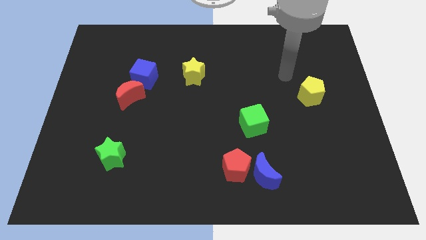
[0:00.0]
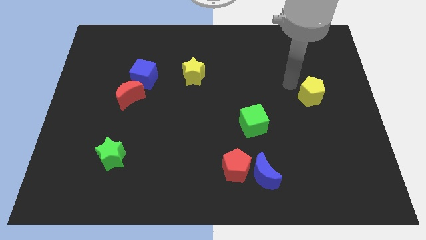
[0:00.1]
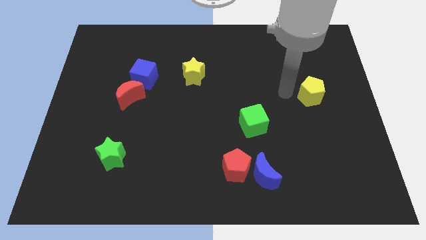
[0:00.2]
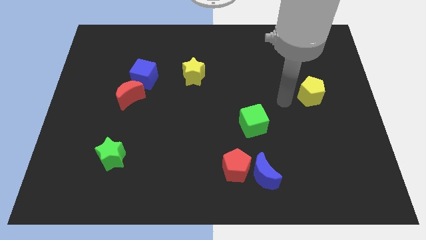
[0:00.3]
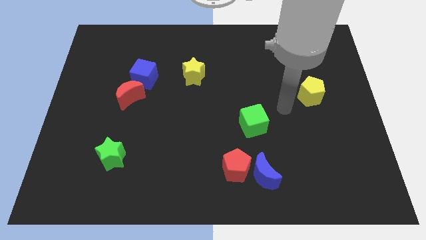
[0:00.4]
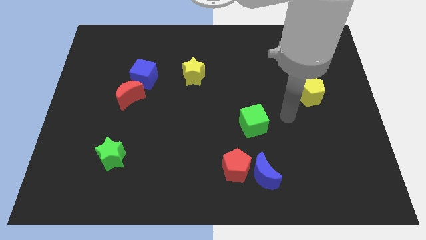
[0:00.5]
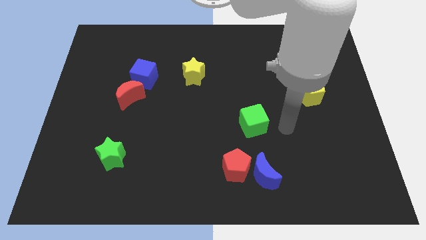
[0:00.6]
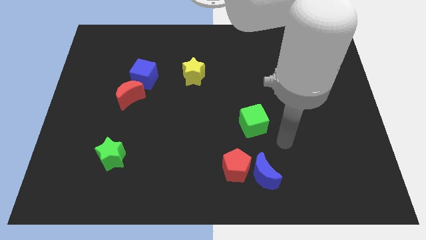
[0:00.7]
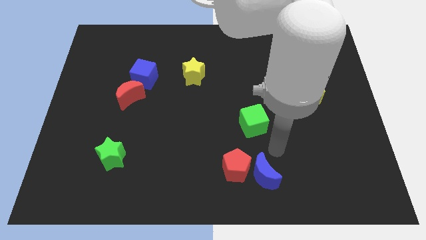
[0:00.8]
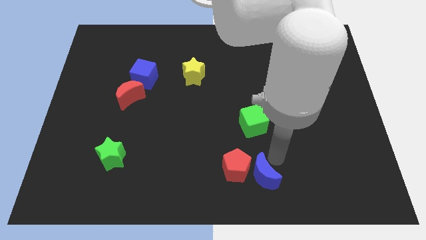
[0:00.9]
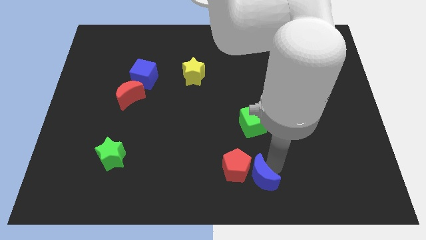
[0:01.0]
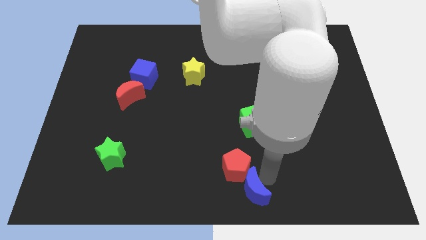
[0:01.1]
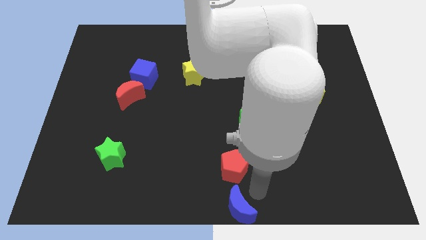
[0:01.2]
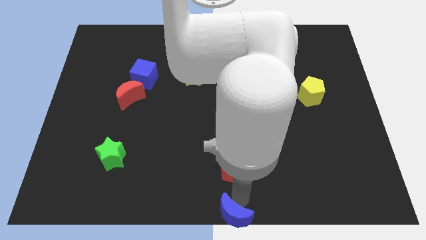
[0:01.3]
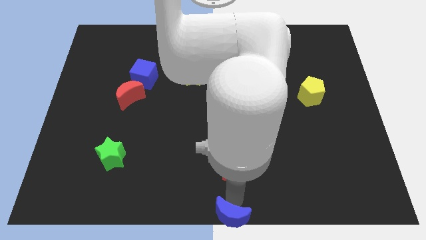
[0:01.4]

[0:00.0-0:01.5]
separate the red pentagon from the blue moon

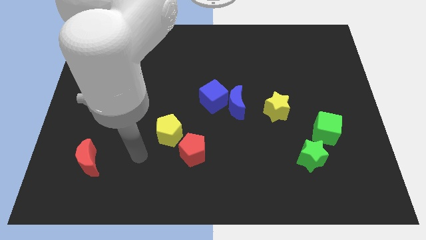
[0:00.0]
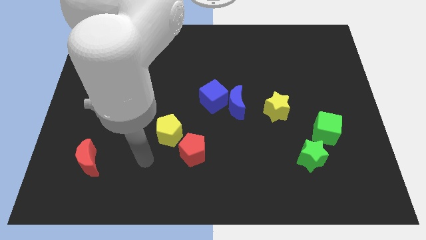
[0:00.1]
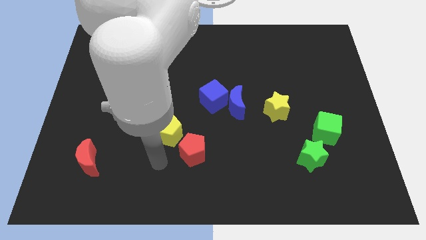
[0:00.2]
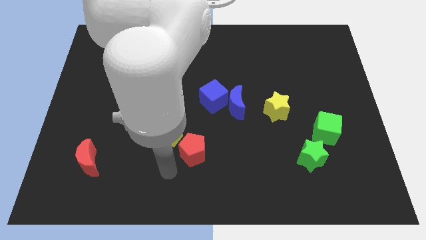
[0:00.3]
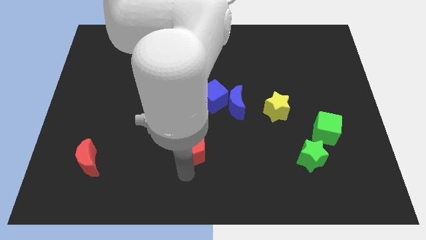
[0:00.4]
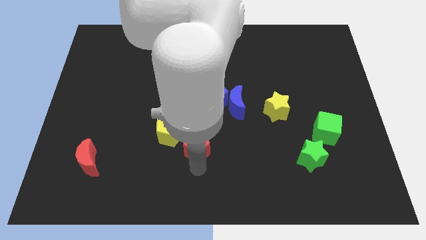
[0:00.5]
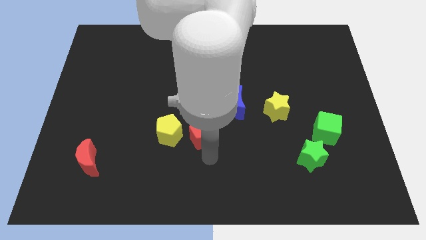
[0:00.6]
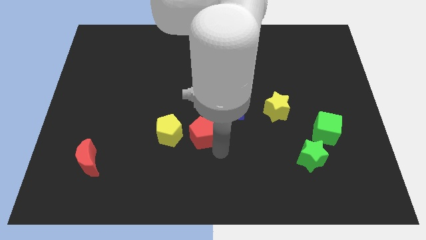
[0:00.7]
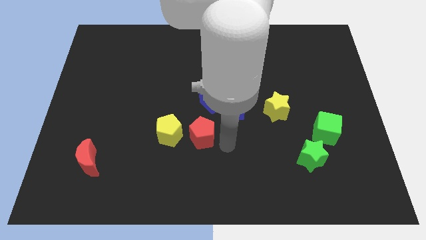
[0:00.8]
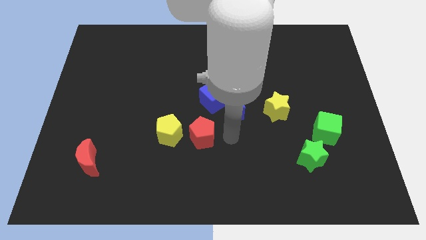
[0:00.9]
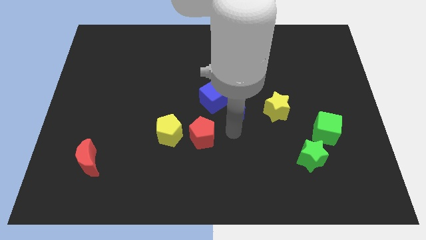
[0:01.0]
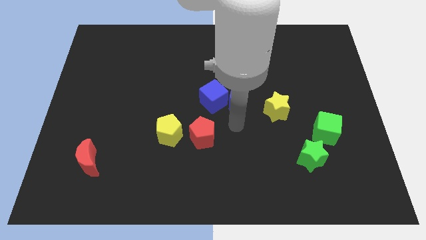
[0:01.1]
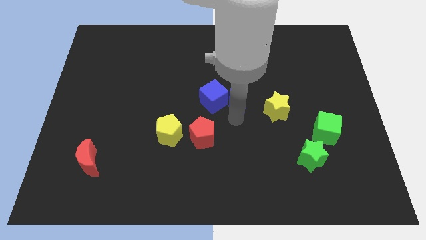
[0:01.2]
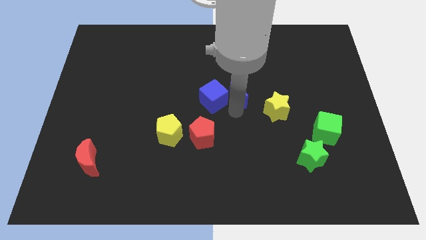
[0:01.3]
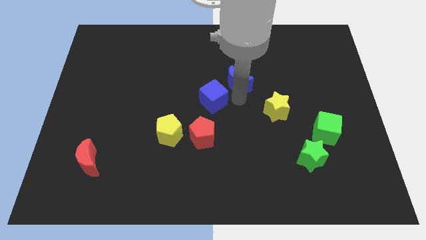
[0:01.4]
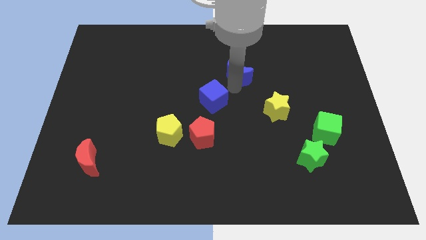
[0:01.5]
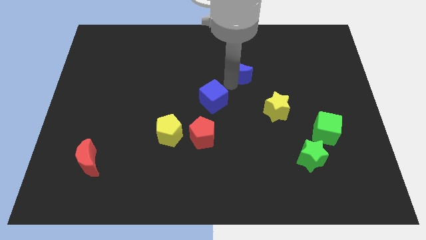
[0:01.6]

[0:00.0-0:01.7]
separate the blue cube from the blue moon

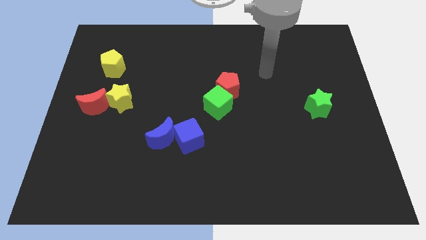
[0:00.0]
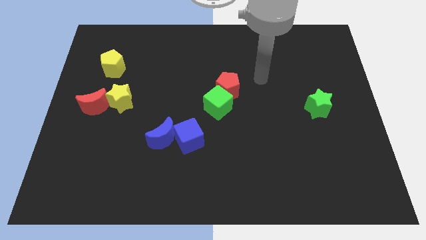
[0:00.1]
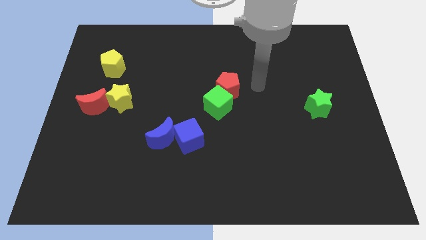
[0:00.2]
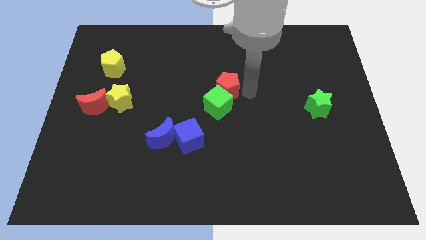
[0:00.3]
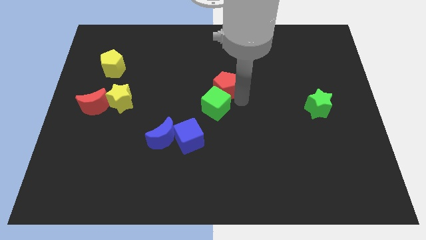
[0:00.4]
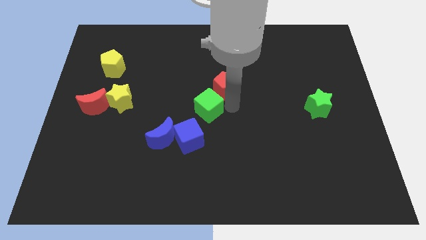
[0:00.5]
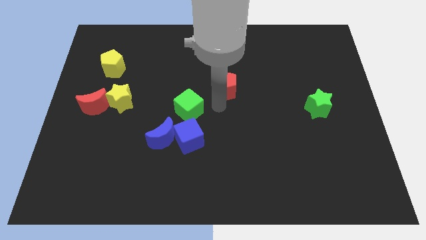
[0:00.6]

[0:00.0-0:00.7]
separate the red pentagon from the green cube

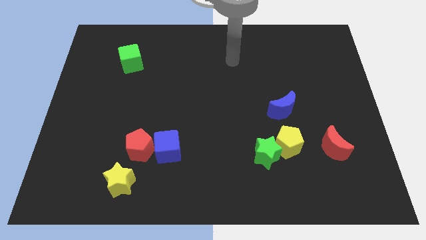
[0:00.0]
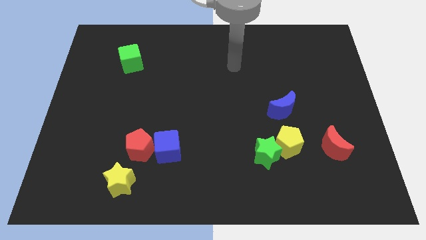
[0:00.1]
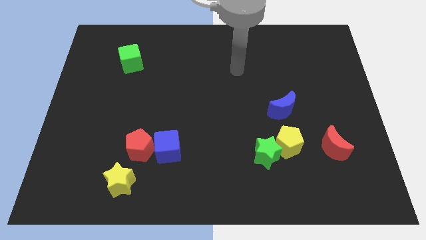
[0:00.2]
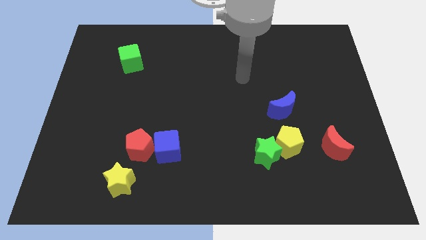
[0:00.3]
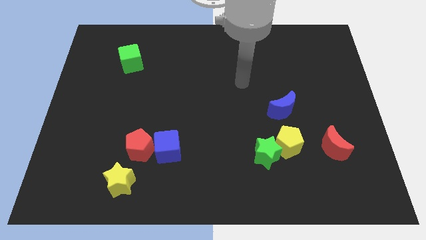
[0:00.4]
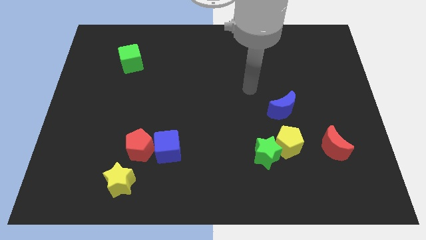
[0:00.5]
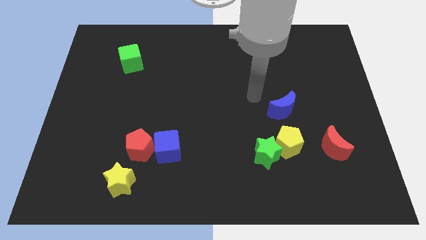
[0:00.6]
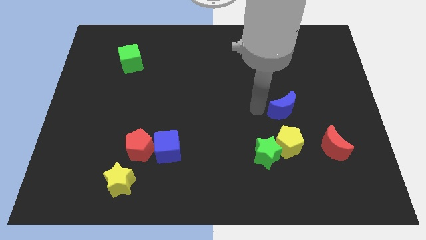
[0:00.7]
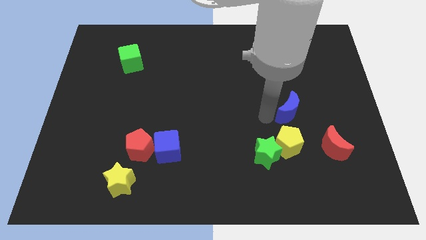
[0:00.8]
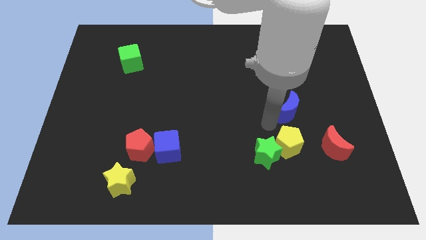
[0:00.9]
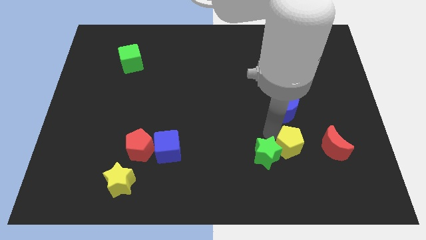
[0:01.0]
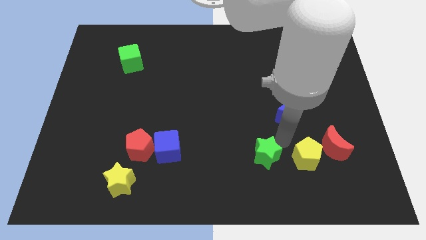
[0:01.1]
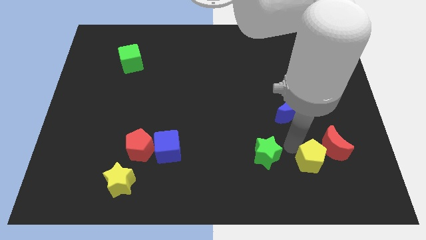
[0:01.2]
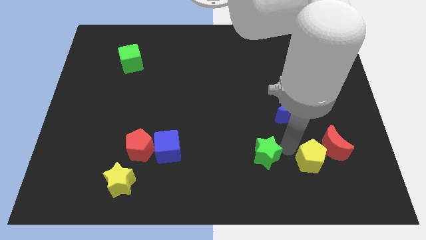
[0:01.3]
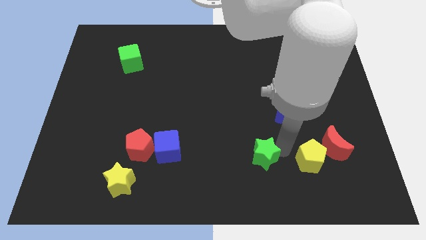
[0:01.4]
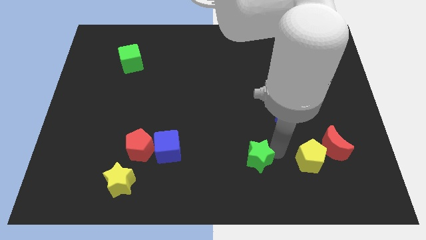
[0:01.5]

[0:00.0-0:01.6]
move the green star away from the yellow pentagon

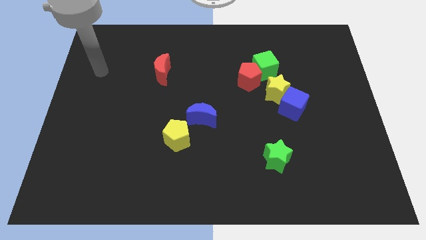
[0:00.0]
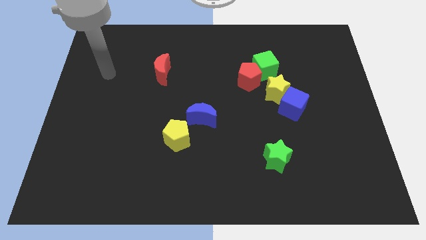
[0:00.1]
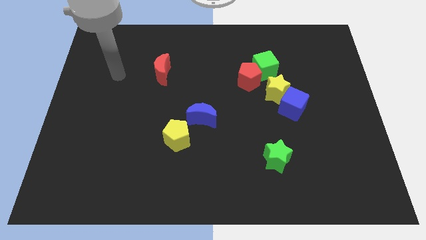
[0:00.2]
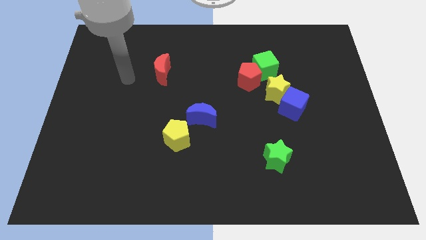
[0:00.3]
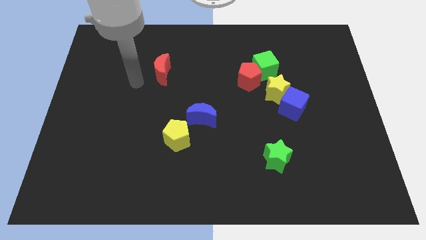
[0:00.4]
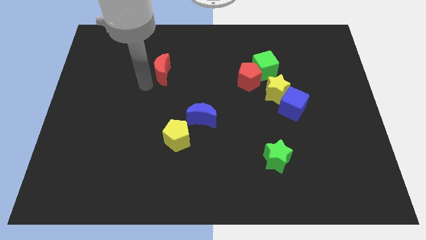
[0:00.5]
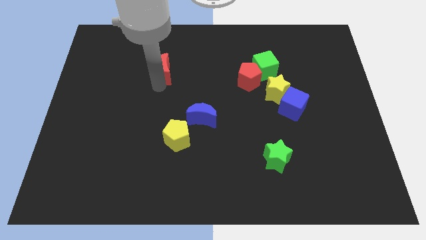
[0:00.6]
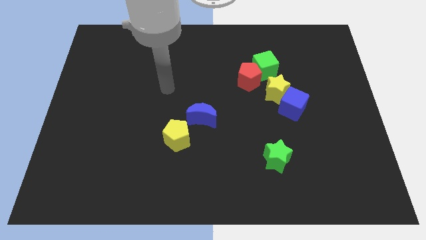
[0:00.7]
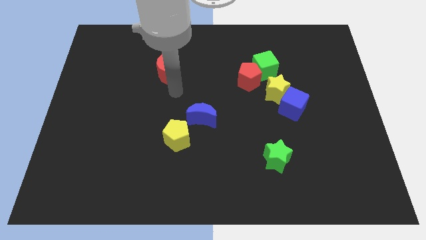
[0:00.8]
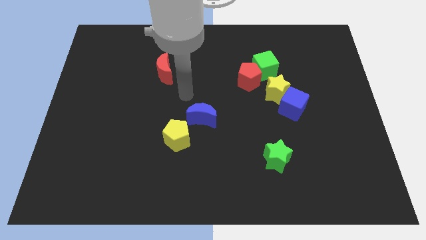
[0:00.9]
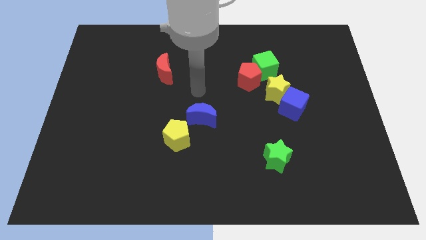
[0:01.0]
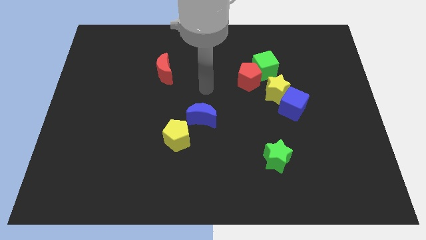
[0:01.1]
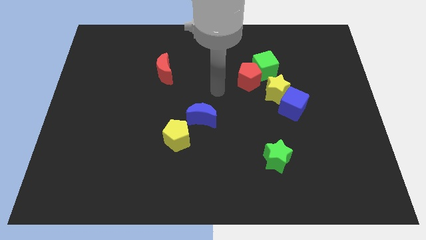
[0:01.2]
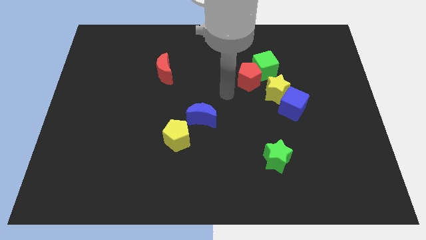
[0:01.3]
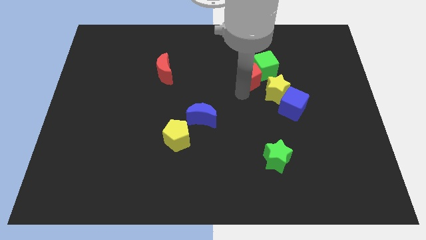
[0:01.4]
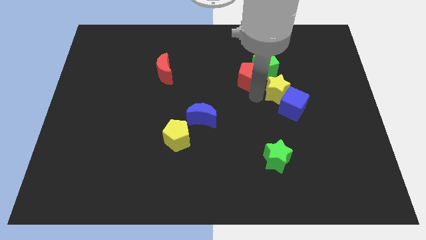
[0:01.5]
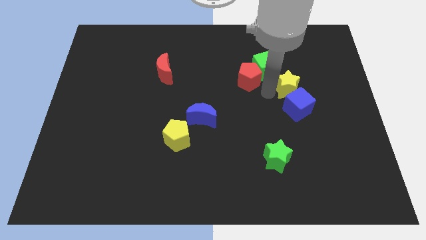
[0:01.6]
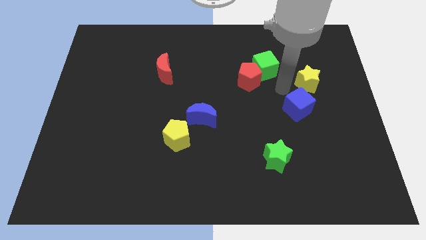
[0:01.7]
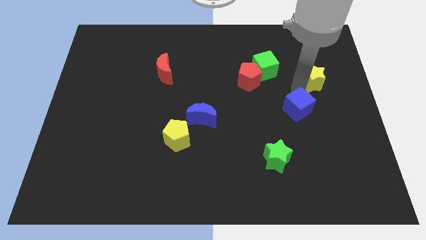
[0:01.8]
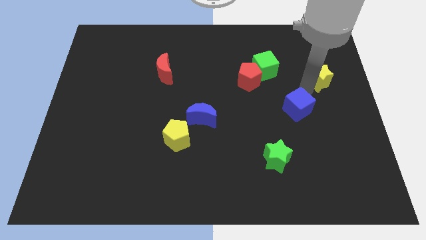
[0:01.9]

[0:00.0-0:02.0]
separate the blue cube from the yellow star

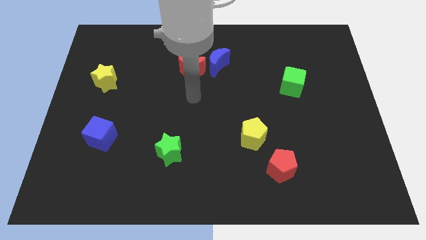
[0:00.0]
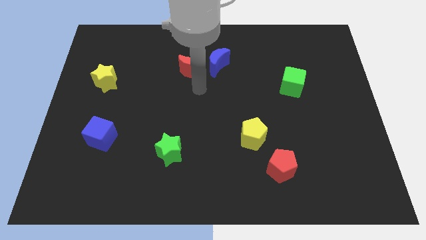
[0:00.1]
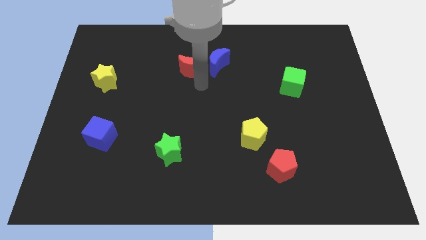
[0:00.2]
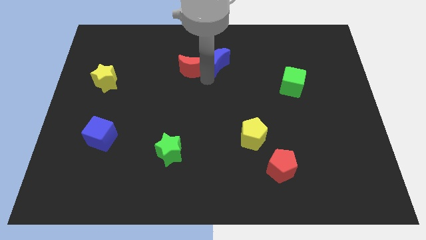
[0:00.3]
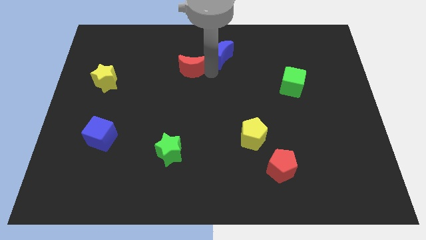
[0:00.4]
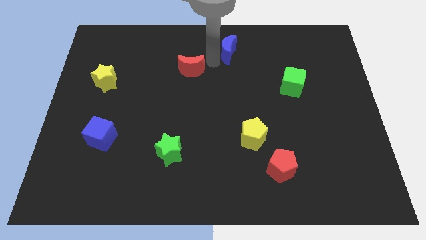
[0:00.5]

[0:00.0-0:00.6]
move the red moon away from the blue moon

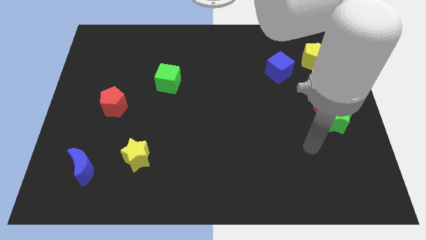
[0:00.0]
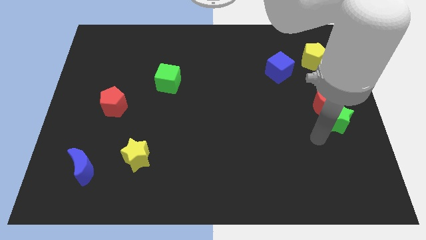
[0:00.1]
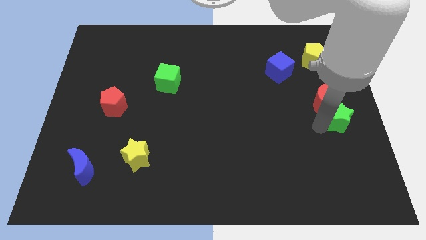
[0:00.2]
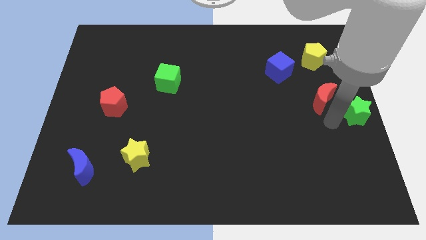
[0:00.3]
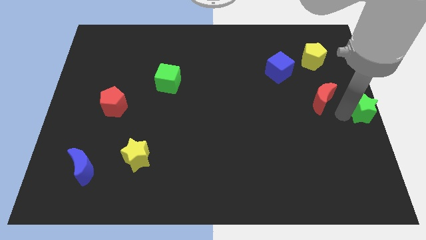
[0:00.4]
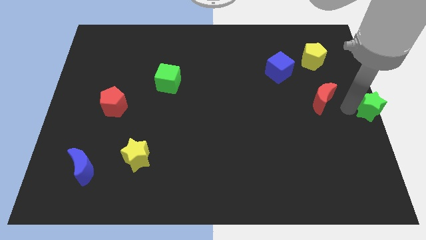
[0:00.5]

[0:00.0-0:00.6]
move the red moon away from the green star

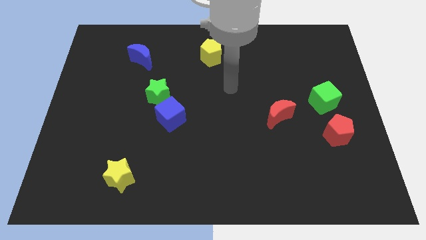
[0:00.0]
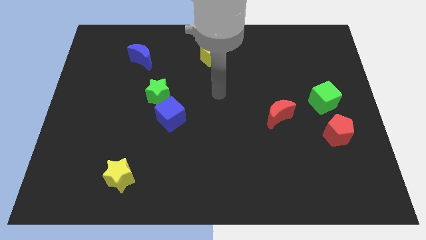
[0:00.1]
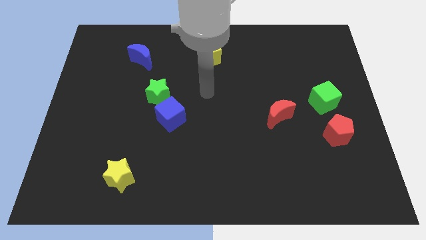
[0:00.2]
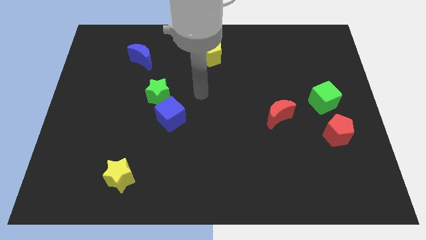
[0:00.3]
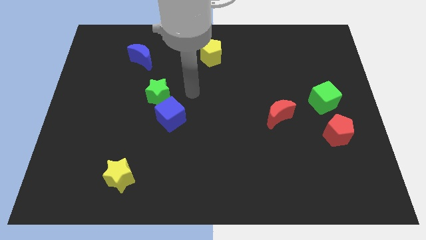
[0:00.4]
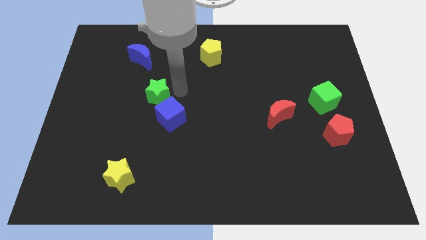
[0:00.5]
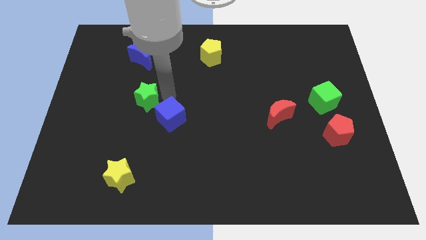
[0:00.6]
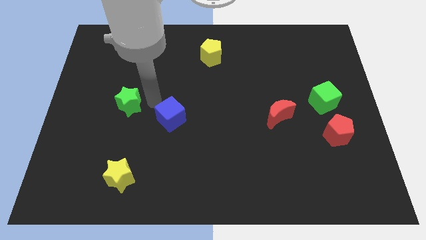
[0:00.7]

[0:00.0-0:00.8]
move the blue cube away from the green star
